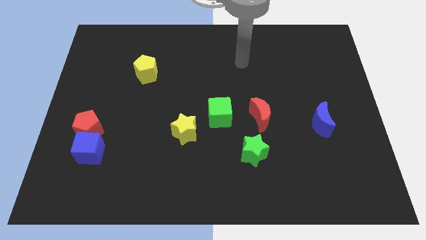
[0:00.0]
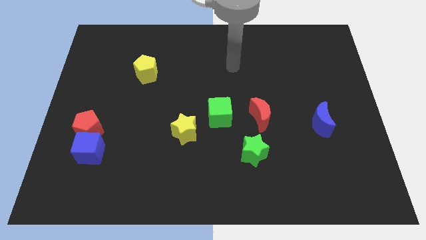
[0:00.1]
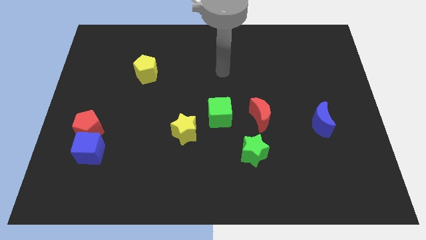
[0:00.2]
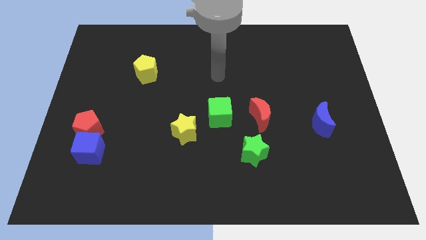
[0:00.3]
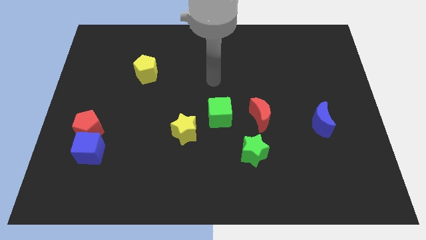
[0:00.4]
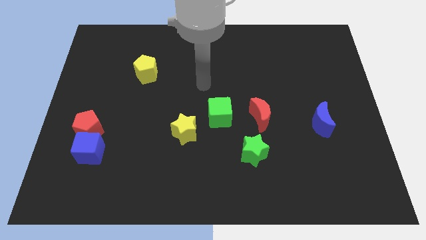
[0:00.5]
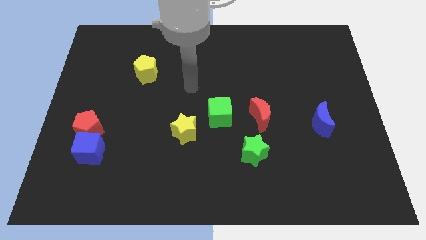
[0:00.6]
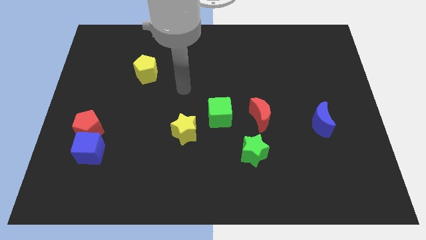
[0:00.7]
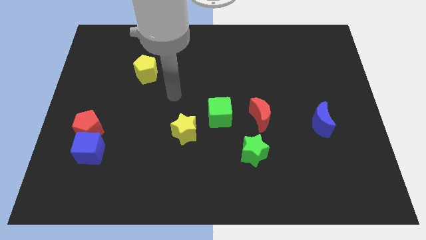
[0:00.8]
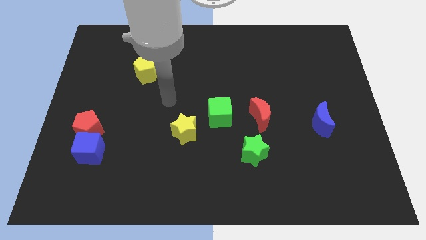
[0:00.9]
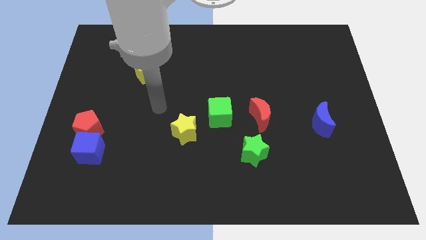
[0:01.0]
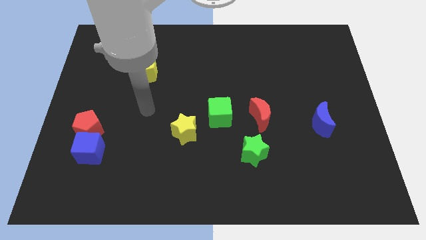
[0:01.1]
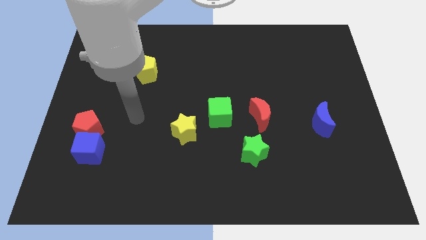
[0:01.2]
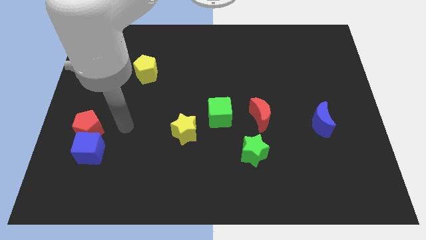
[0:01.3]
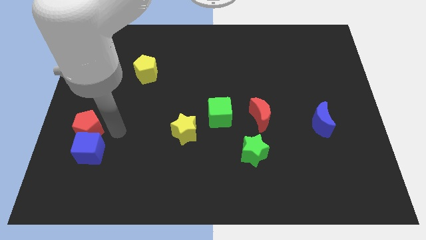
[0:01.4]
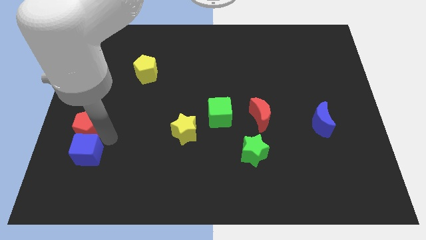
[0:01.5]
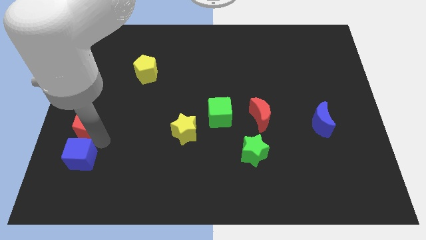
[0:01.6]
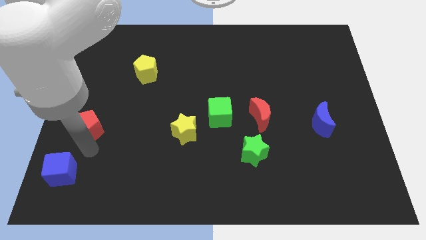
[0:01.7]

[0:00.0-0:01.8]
pull the red pentagon apart from the blue cube

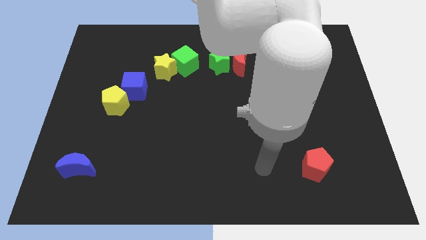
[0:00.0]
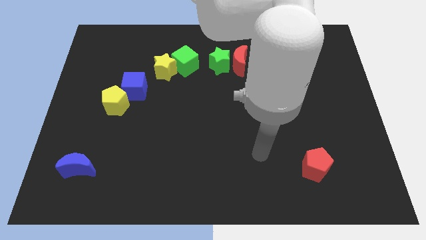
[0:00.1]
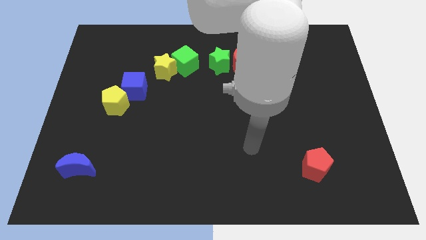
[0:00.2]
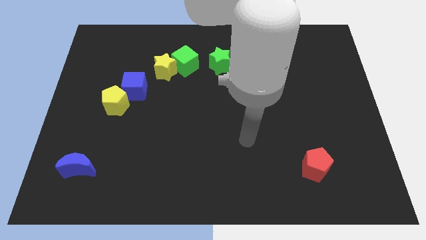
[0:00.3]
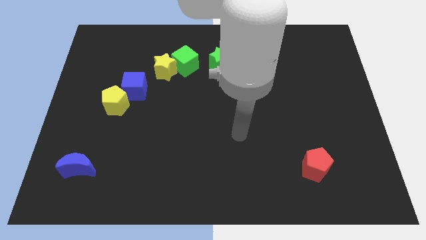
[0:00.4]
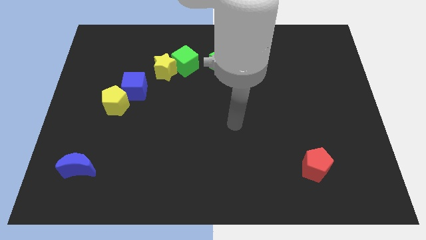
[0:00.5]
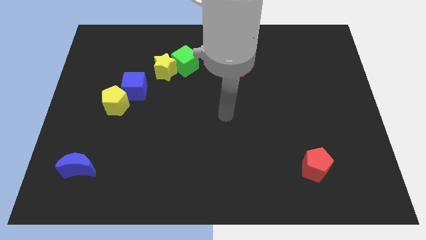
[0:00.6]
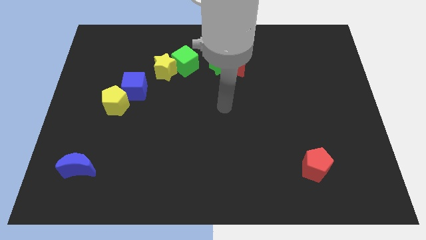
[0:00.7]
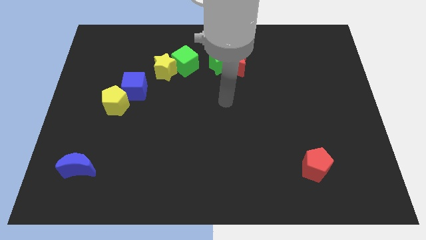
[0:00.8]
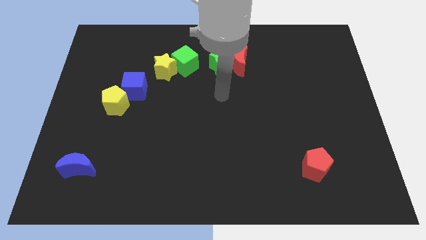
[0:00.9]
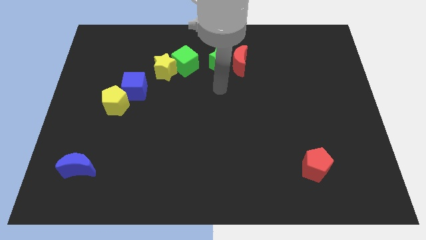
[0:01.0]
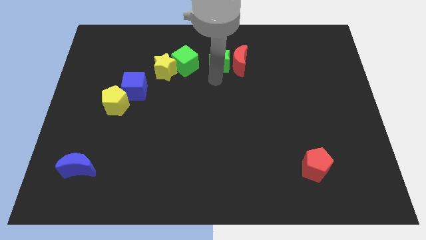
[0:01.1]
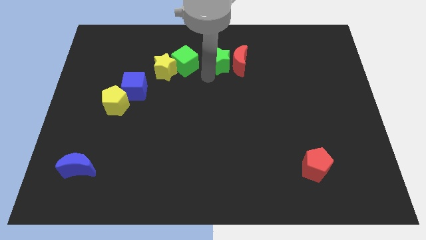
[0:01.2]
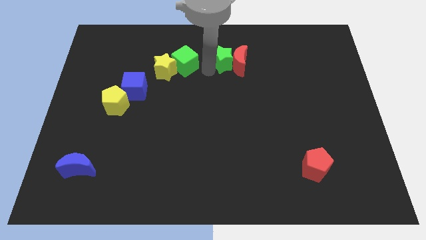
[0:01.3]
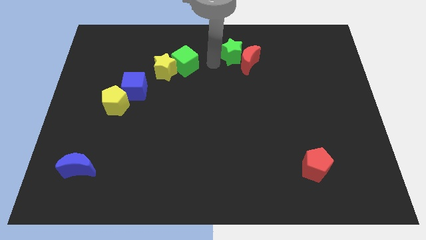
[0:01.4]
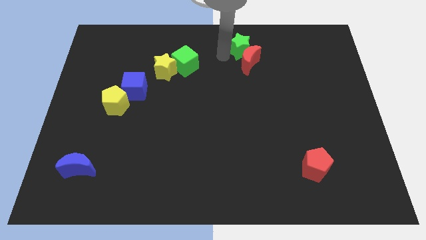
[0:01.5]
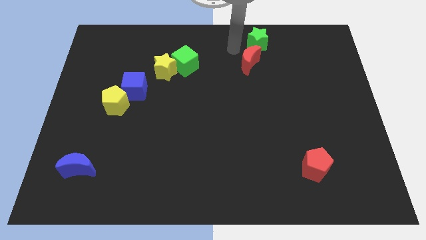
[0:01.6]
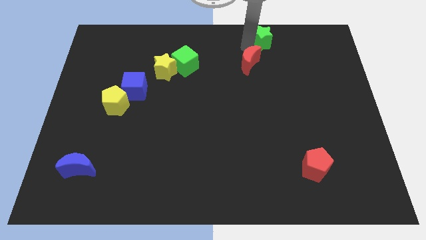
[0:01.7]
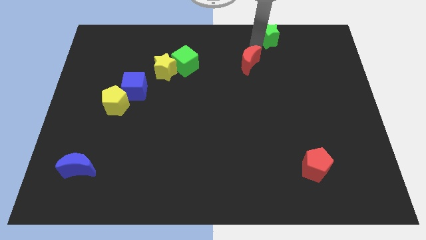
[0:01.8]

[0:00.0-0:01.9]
move the red moon away from the green star

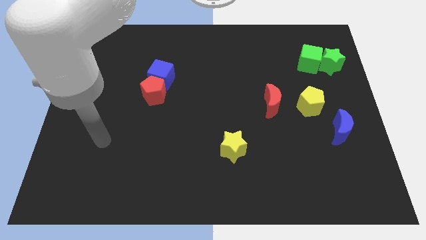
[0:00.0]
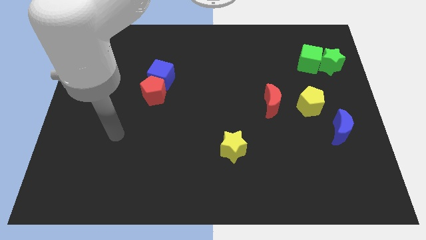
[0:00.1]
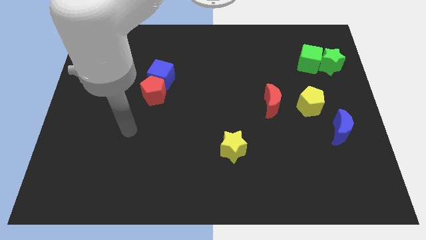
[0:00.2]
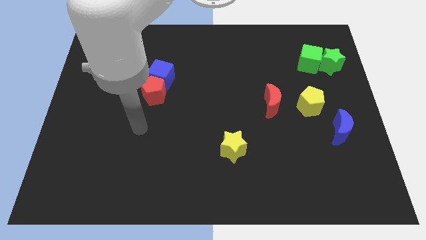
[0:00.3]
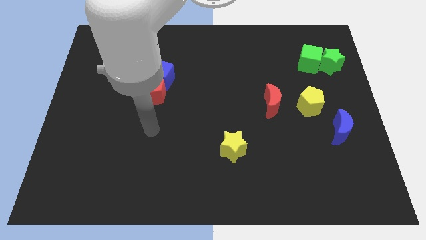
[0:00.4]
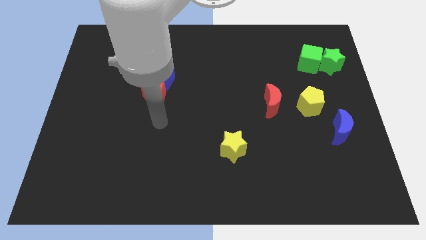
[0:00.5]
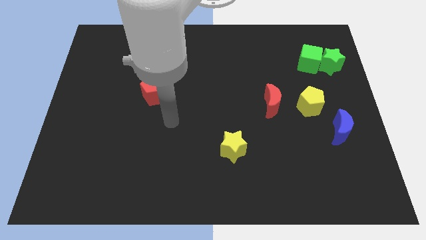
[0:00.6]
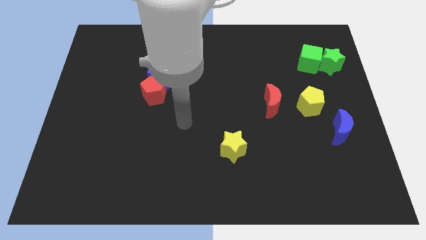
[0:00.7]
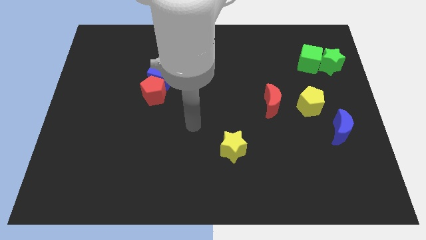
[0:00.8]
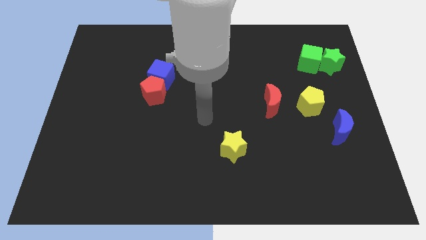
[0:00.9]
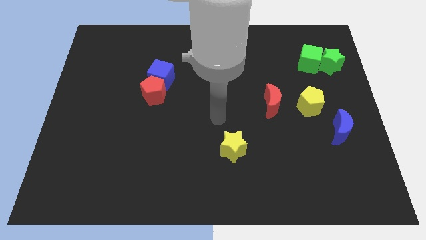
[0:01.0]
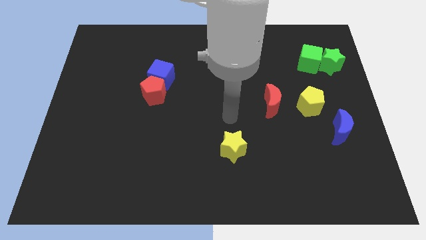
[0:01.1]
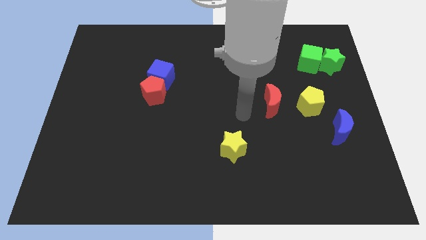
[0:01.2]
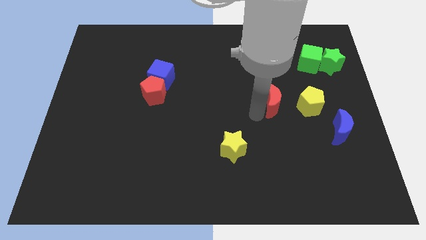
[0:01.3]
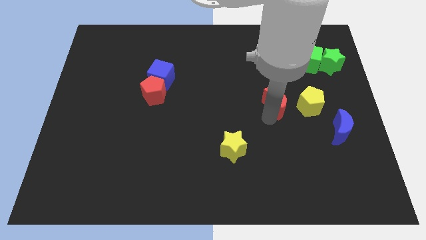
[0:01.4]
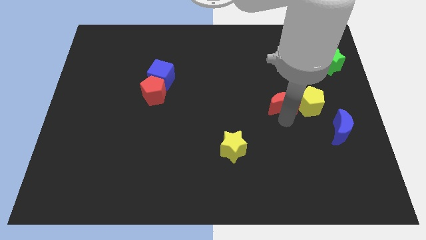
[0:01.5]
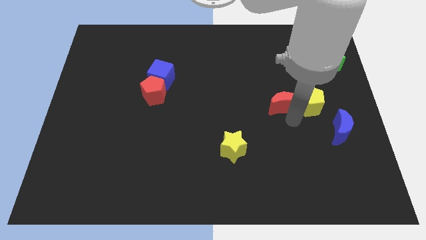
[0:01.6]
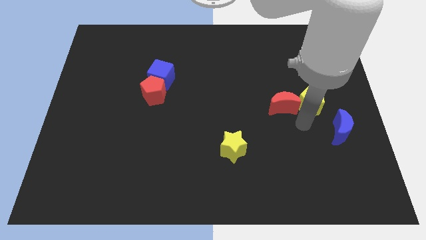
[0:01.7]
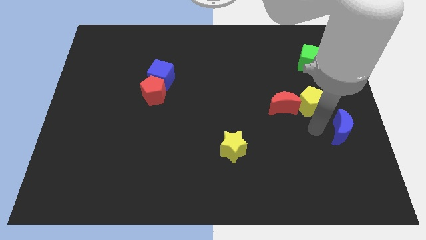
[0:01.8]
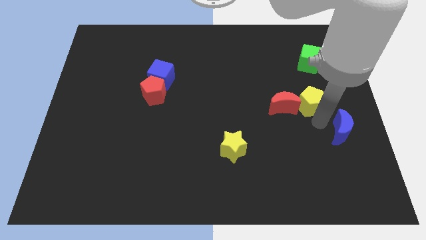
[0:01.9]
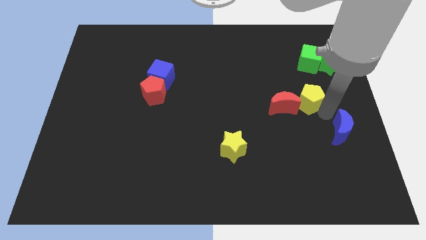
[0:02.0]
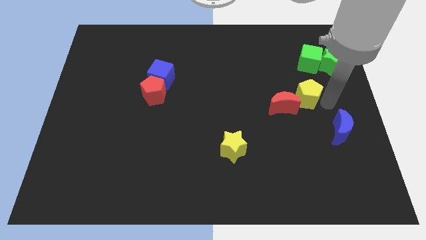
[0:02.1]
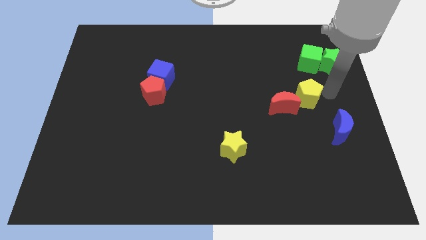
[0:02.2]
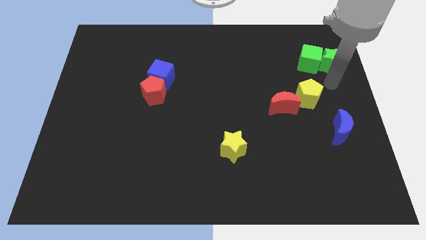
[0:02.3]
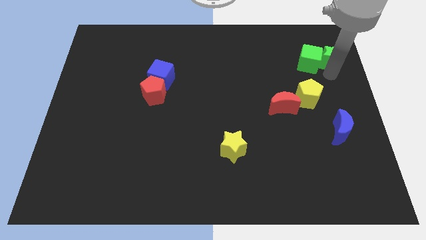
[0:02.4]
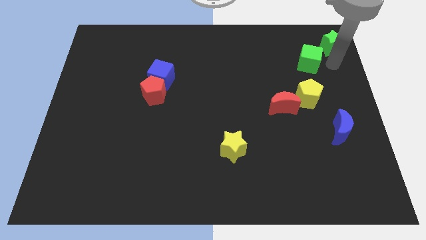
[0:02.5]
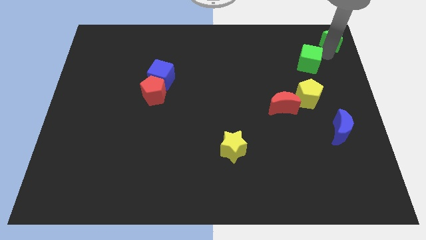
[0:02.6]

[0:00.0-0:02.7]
move the green cube away from the green star

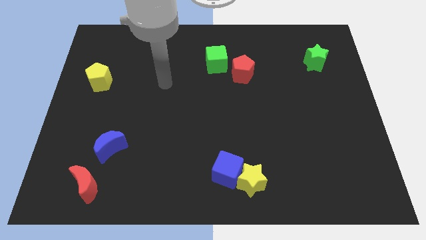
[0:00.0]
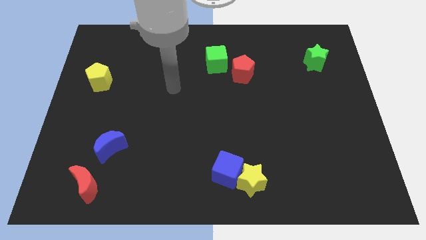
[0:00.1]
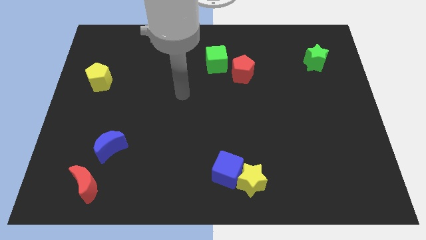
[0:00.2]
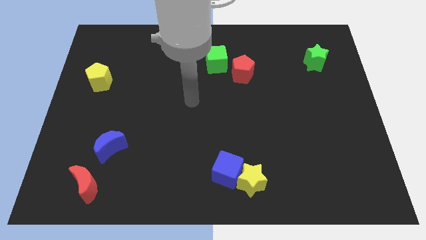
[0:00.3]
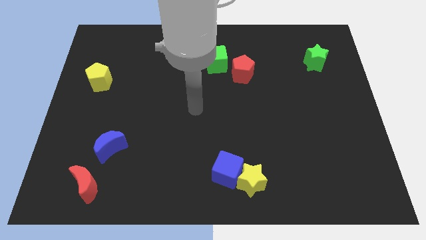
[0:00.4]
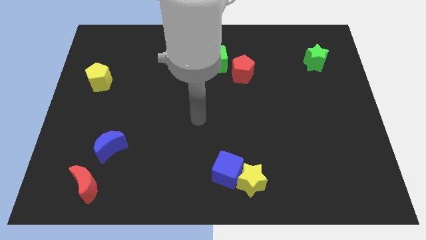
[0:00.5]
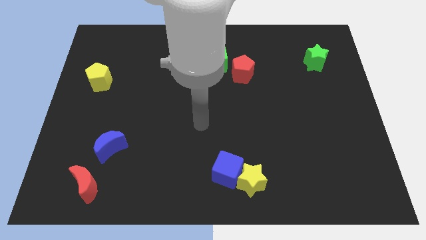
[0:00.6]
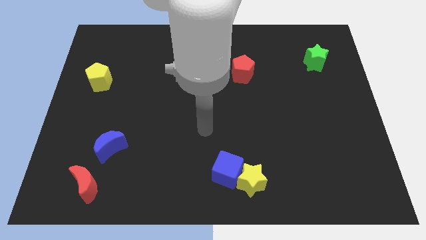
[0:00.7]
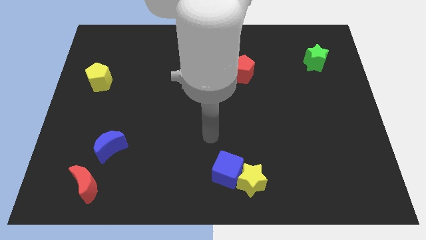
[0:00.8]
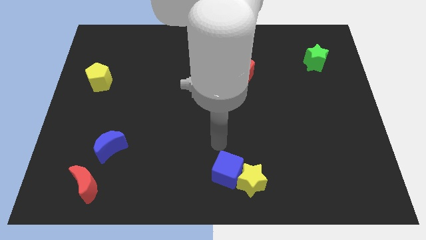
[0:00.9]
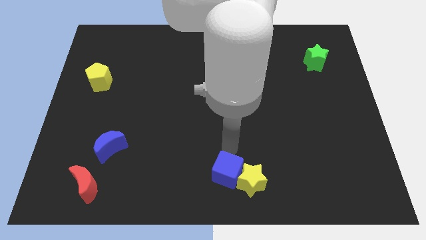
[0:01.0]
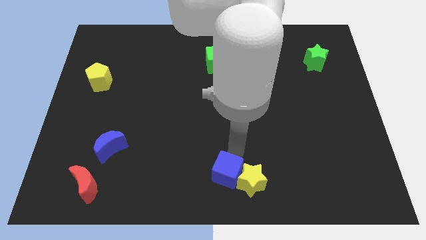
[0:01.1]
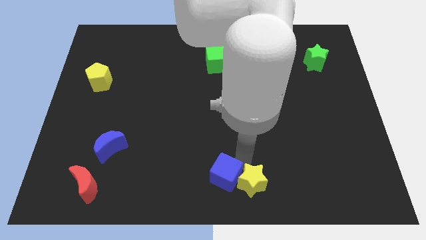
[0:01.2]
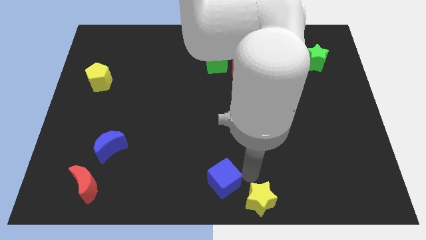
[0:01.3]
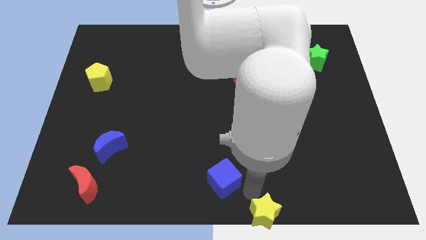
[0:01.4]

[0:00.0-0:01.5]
move the blue cube away from the yellow star

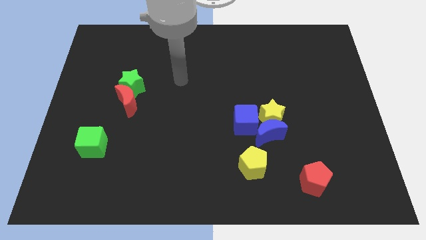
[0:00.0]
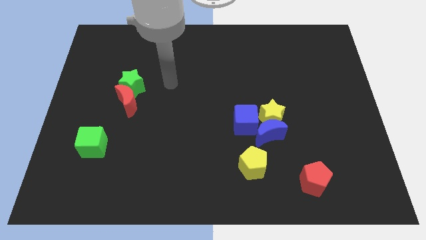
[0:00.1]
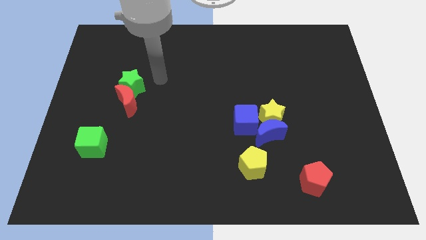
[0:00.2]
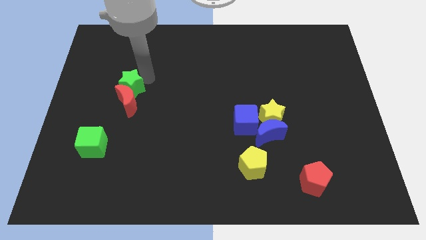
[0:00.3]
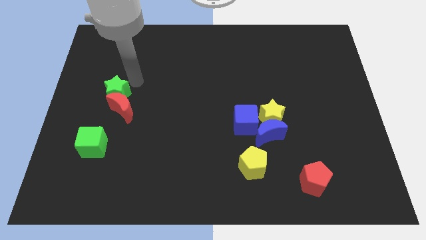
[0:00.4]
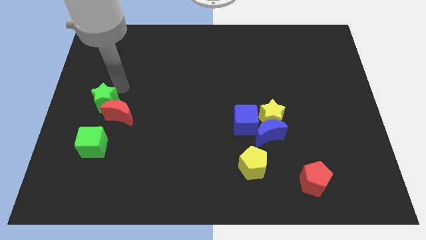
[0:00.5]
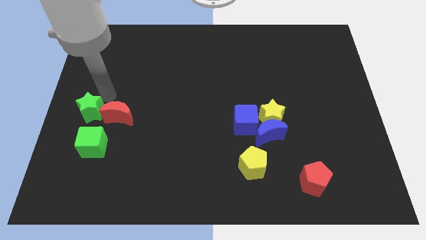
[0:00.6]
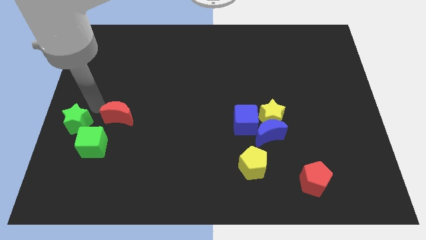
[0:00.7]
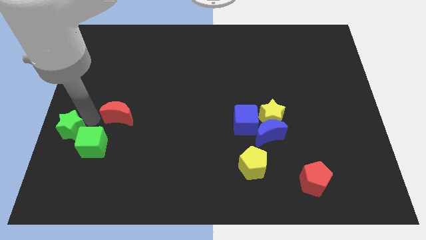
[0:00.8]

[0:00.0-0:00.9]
pull the red moon apart from the green star

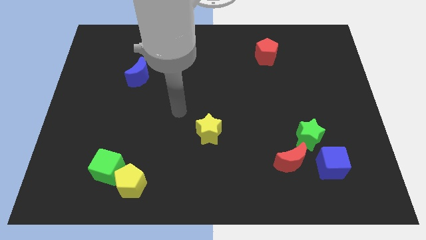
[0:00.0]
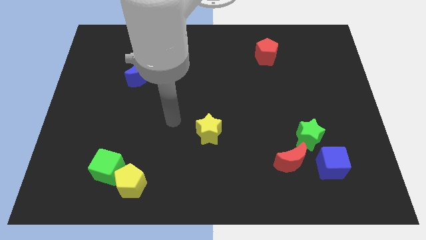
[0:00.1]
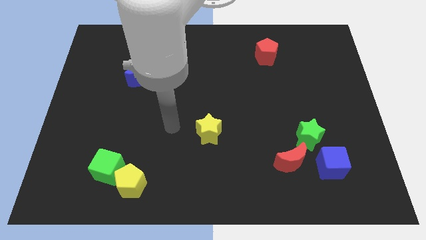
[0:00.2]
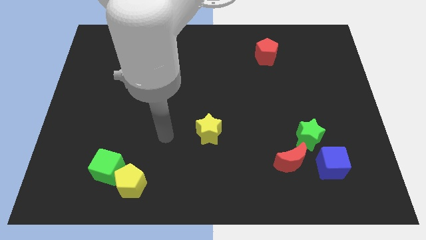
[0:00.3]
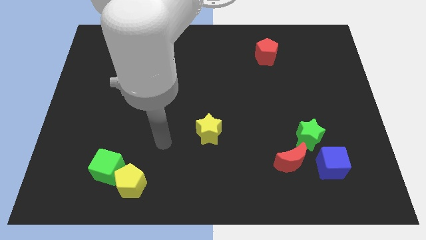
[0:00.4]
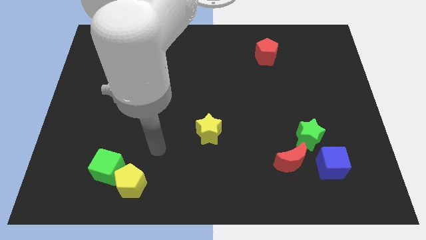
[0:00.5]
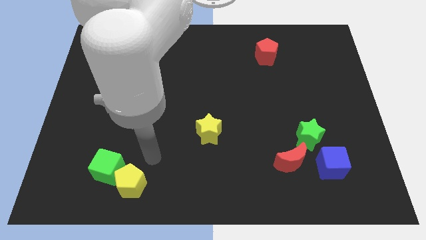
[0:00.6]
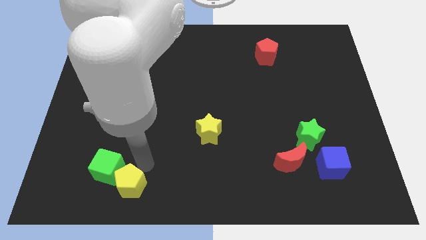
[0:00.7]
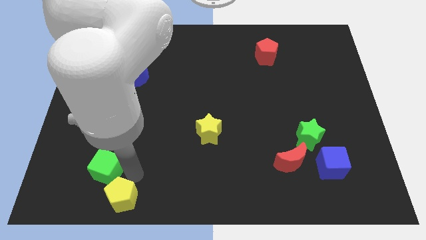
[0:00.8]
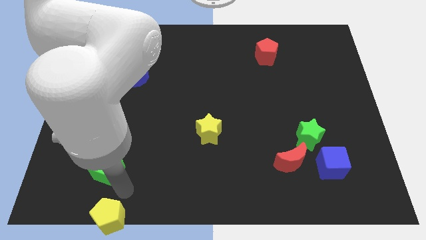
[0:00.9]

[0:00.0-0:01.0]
separate the green cube from the yellow pentagon
